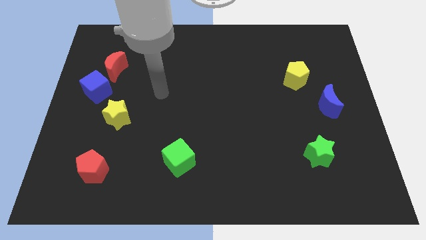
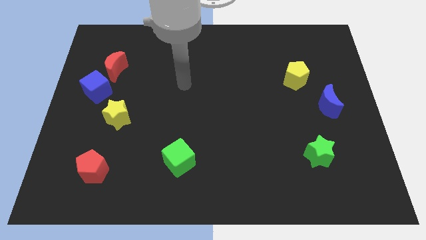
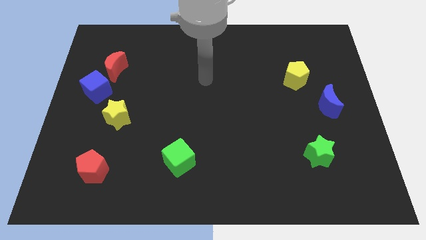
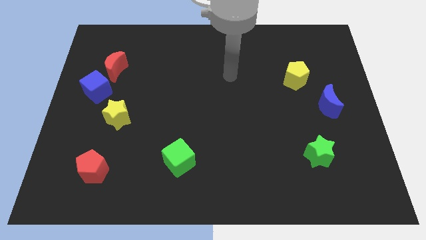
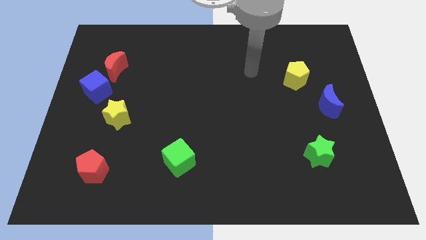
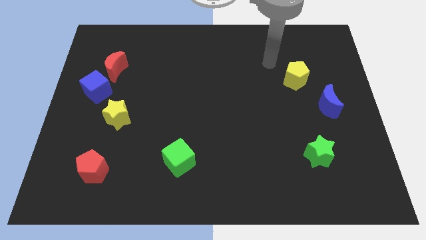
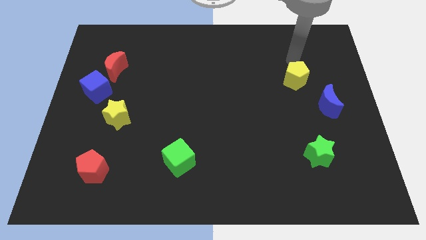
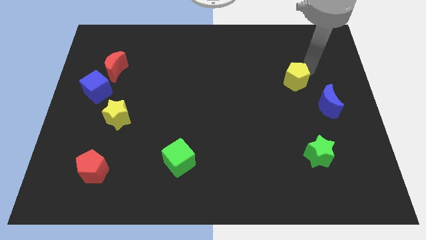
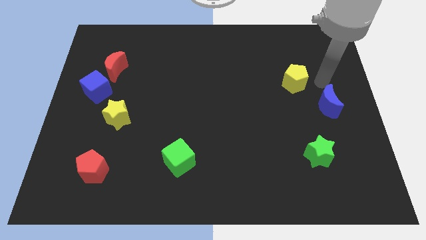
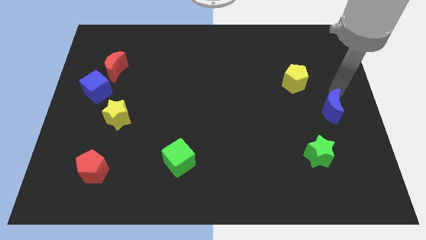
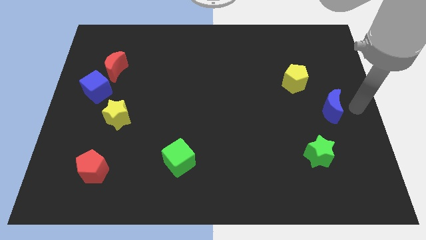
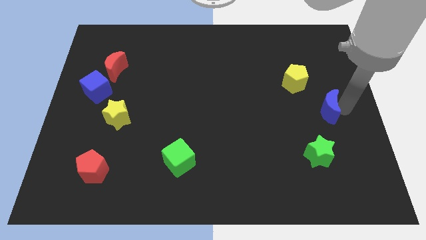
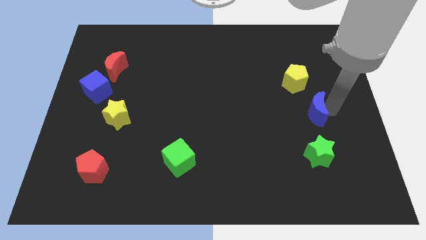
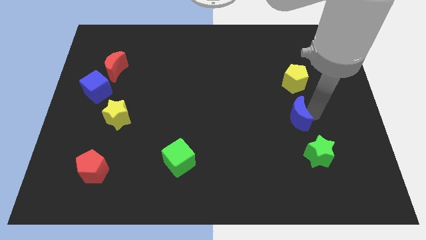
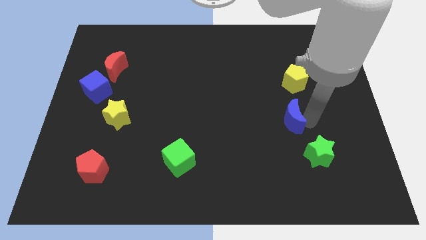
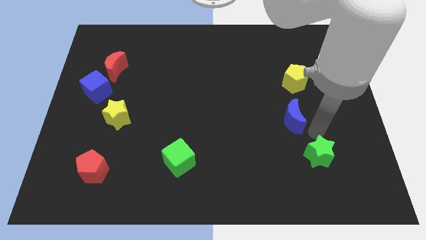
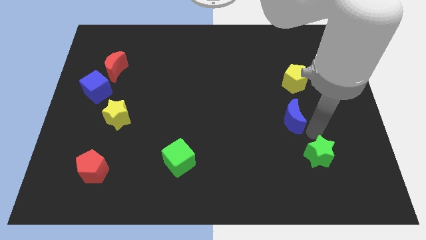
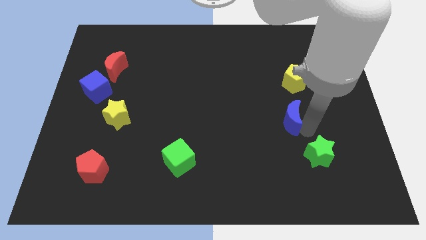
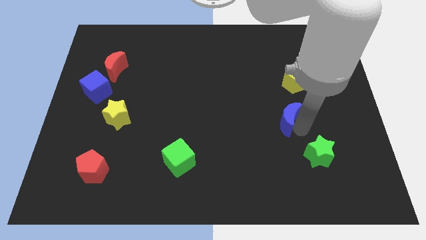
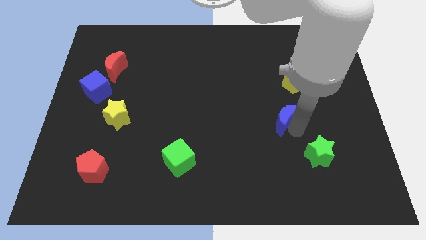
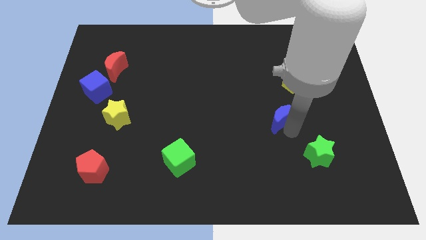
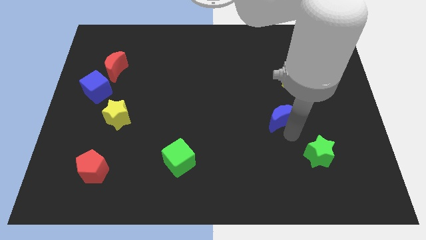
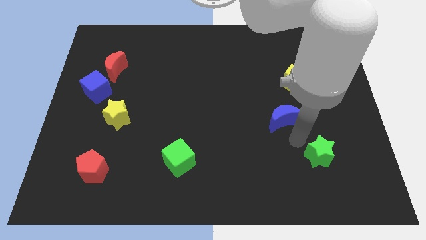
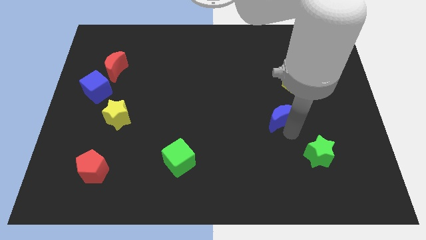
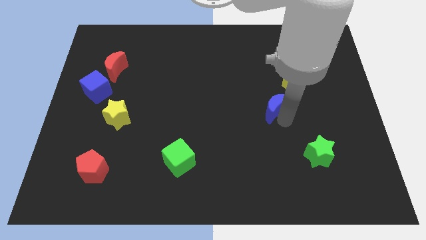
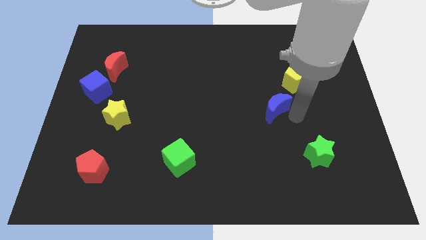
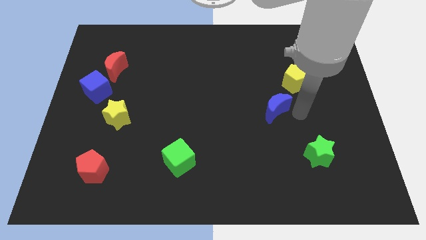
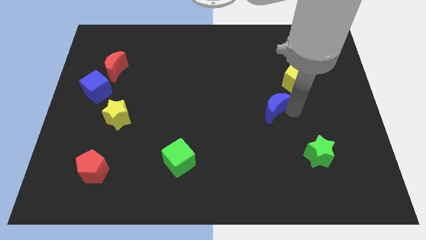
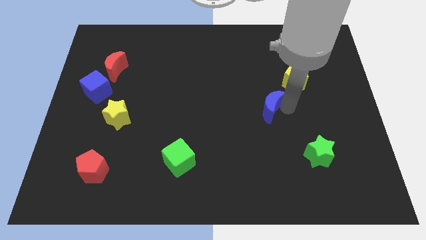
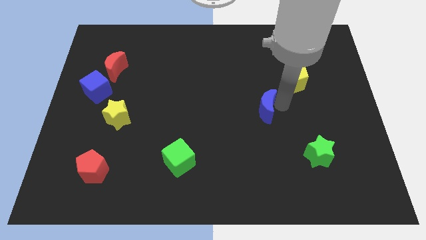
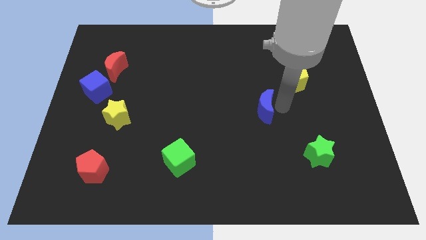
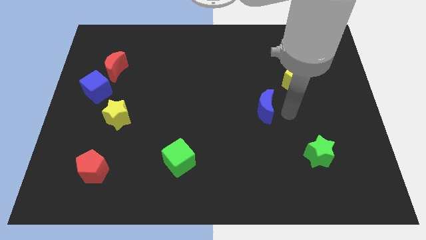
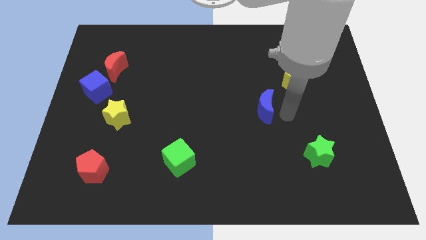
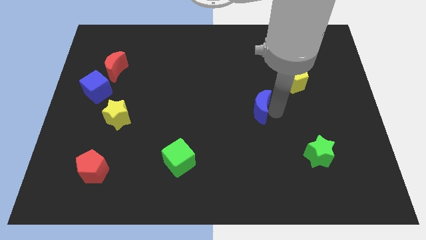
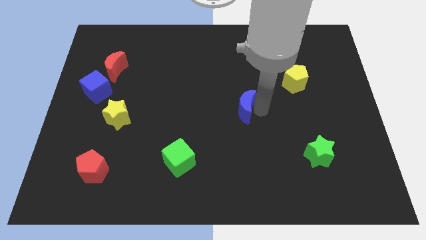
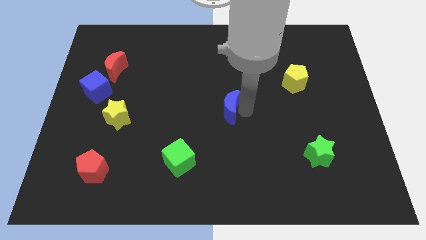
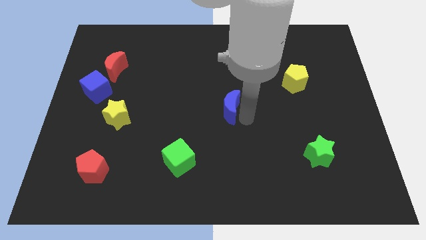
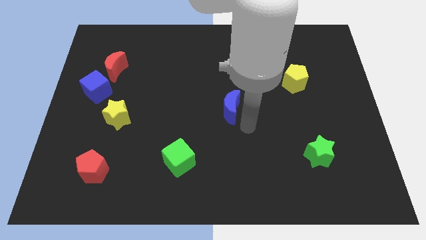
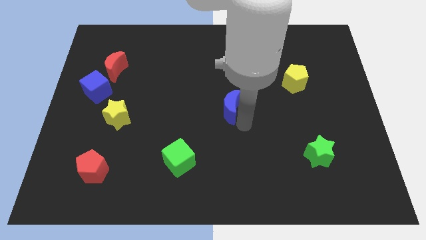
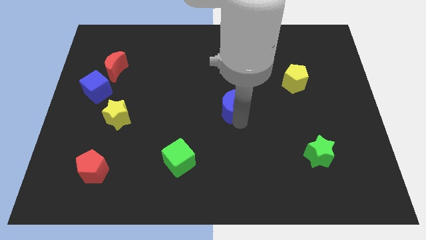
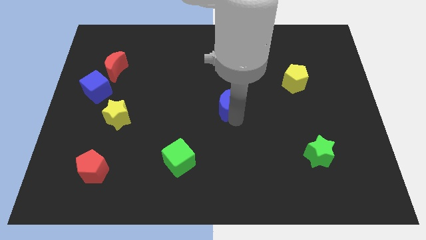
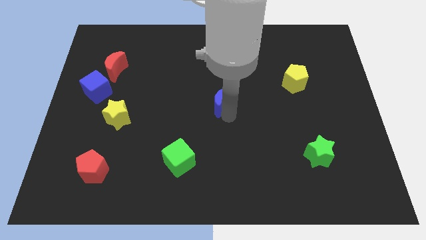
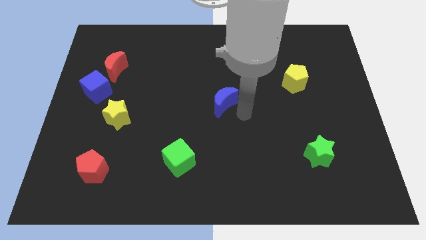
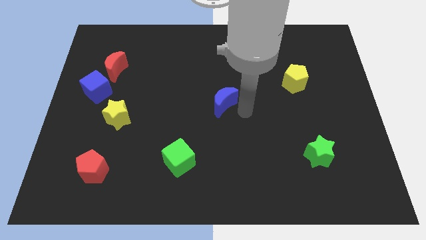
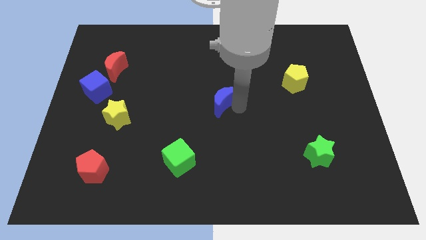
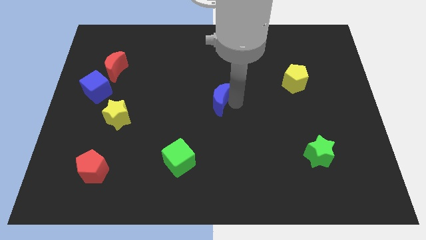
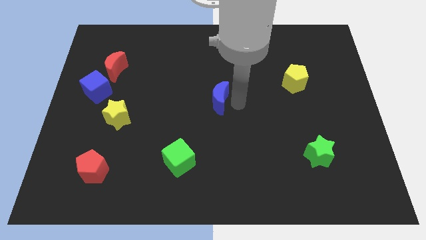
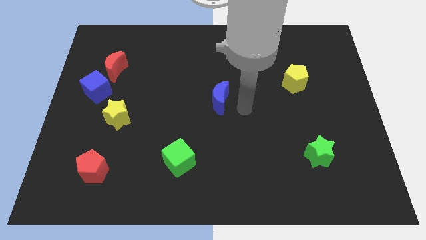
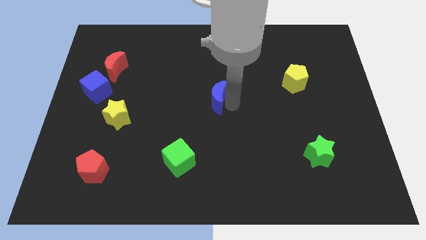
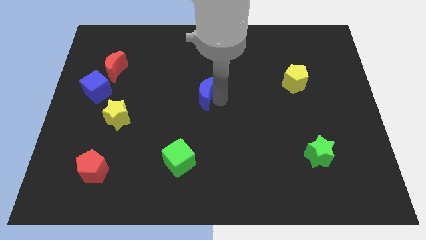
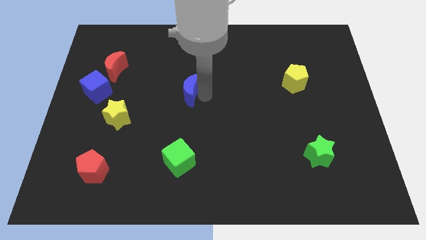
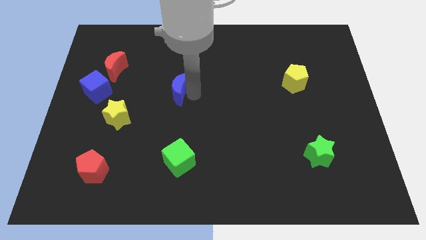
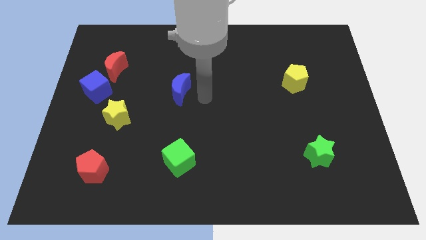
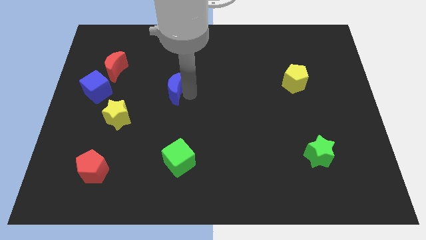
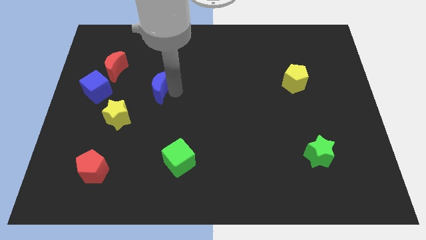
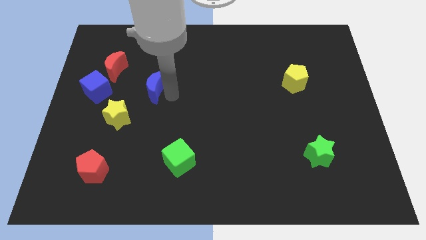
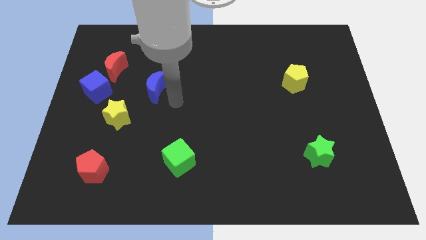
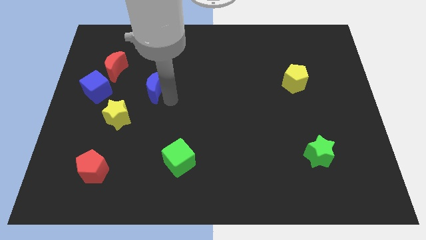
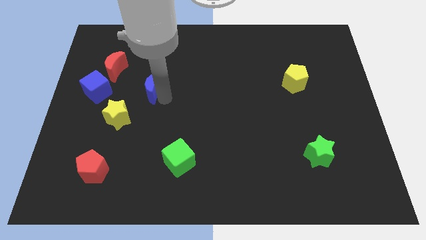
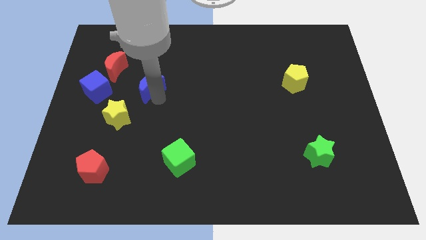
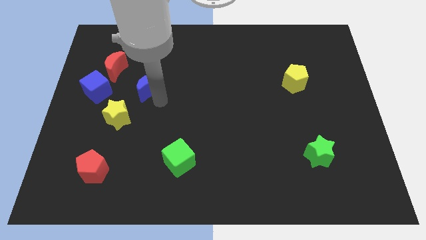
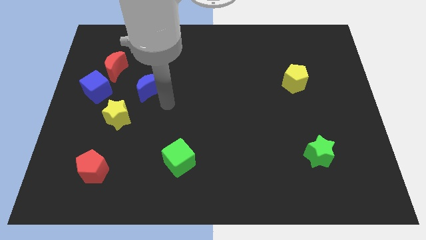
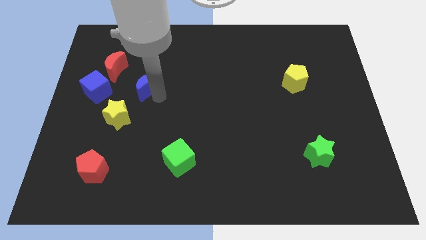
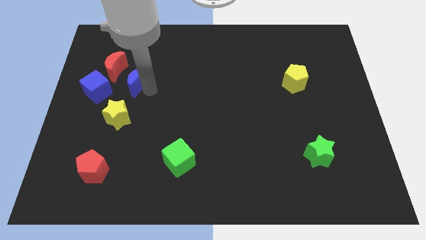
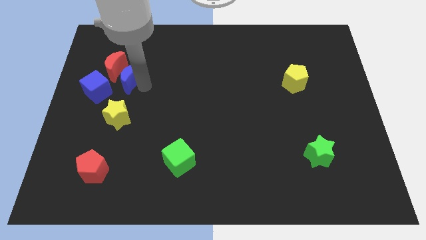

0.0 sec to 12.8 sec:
slide the blue moon next to the red moon

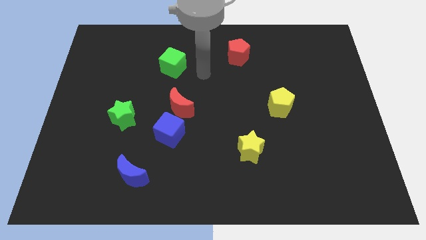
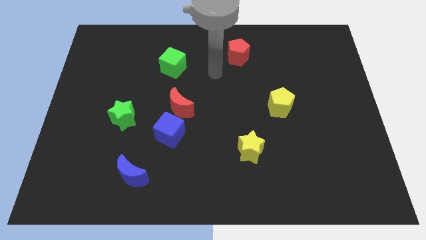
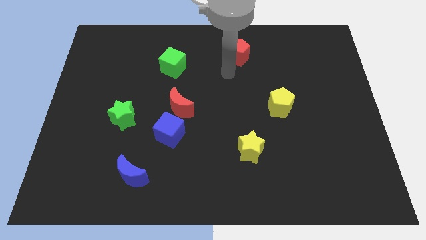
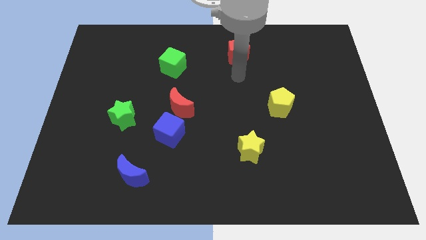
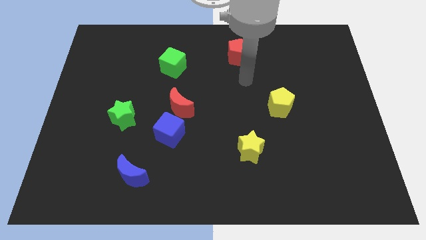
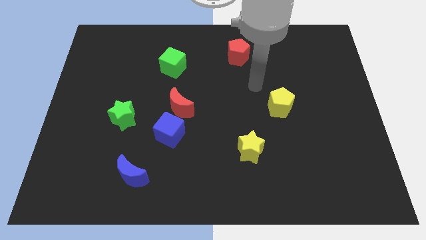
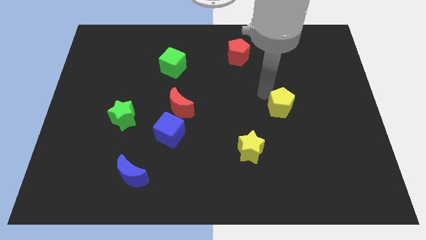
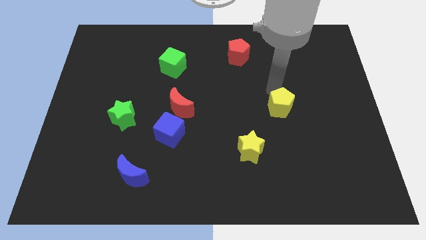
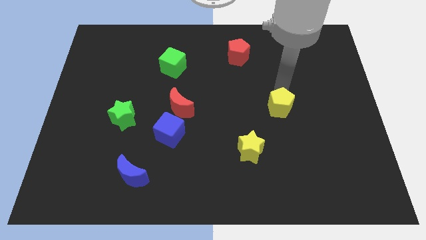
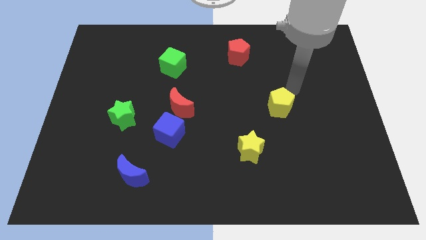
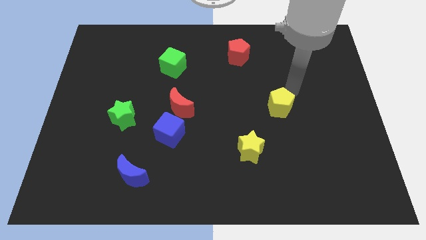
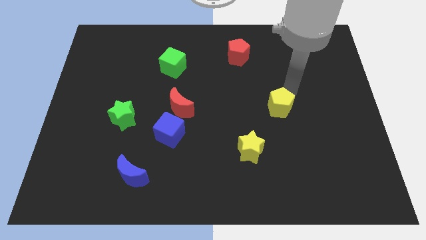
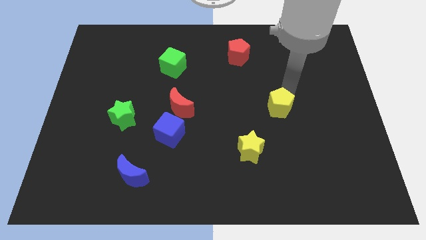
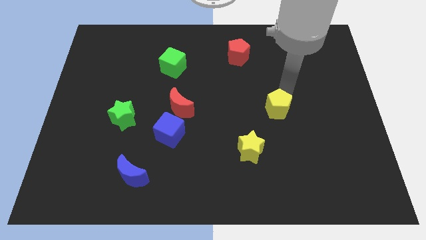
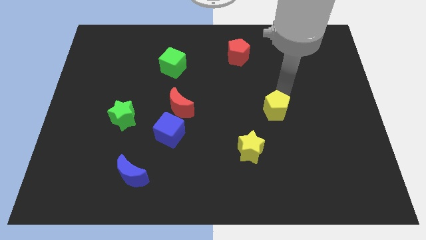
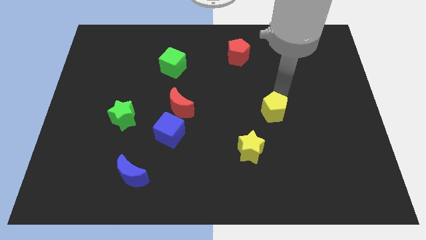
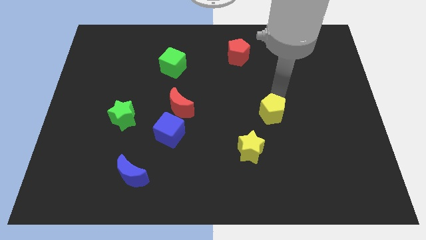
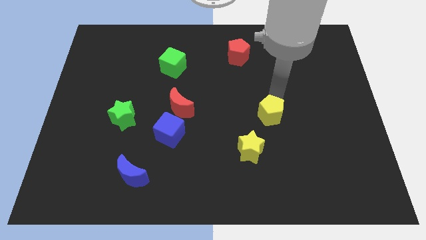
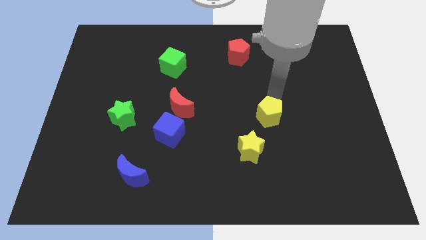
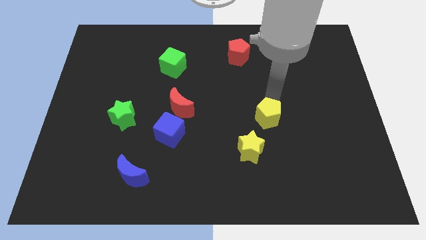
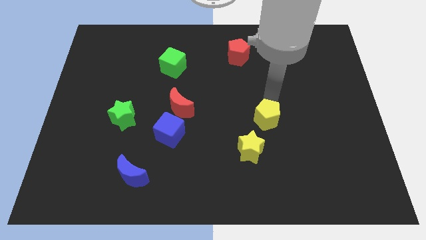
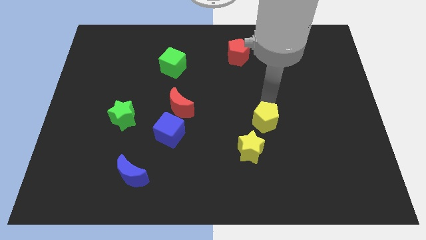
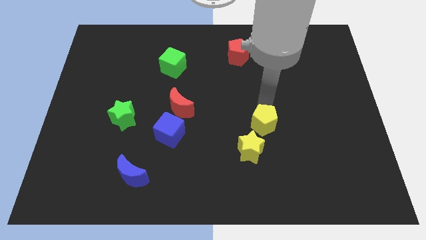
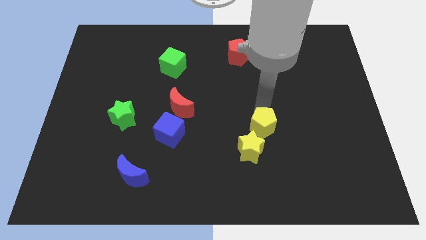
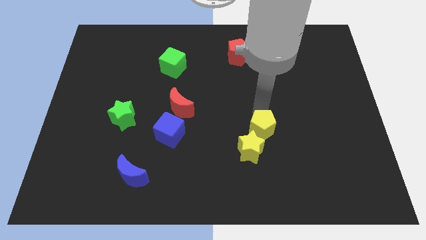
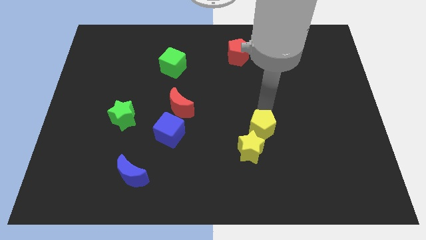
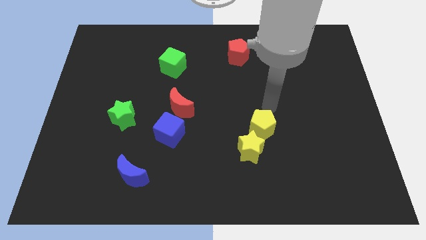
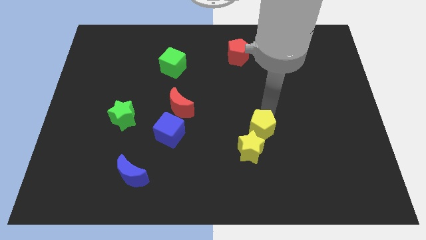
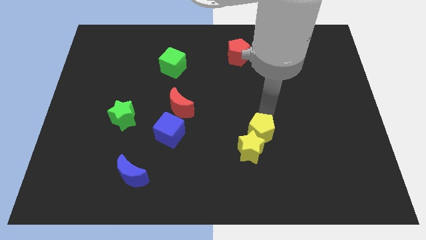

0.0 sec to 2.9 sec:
move the yellow pentagon towards the yellow star
